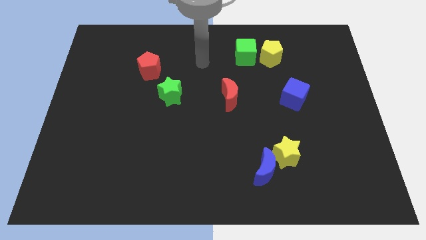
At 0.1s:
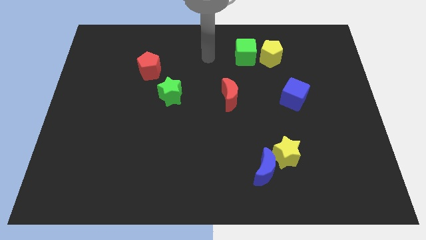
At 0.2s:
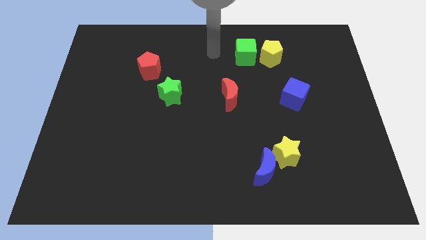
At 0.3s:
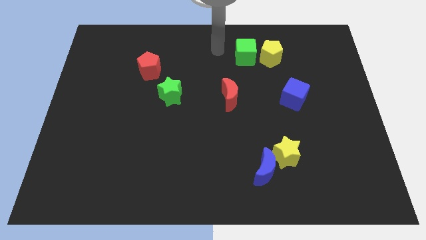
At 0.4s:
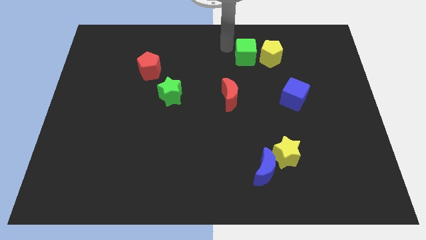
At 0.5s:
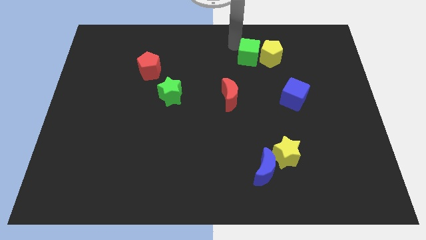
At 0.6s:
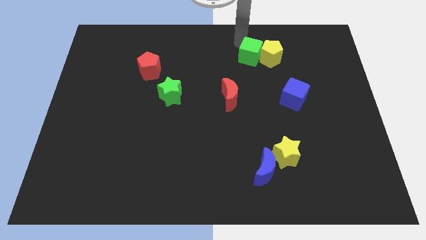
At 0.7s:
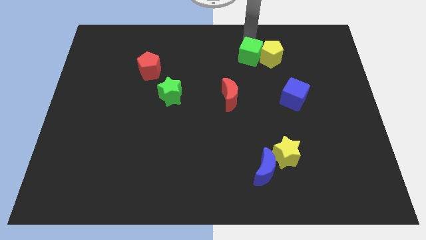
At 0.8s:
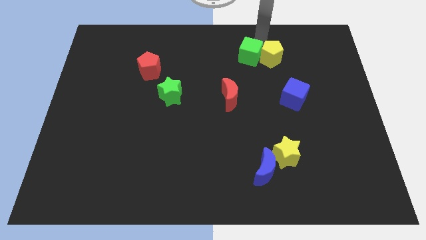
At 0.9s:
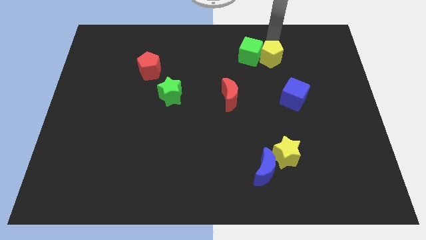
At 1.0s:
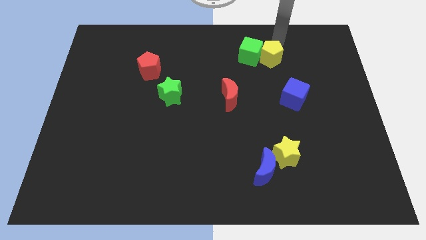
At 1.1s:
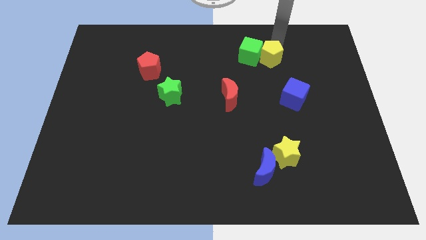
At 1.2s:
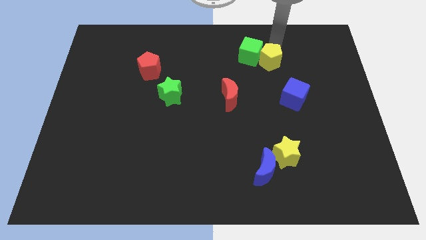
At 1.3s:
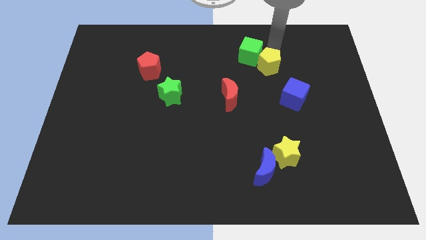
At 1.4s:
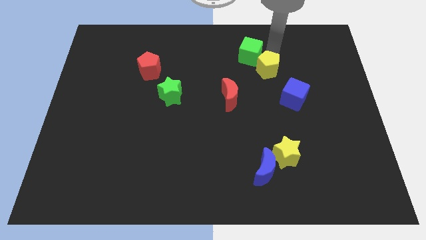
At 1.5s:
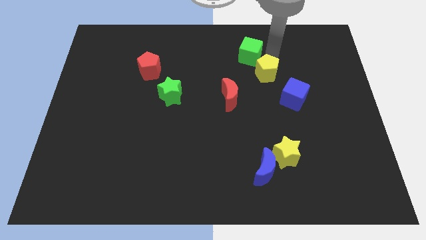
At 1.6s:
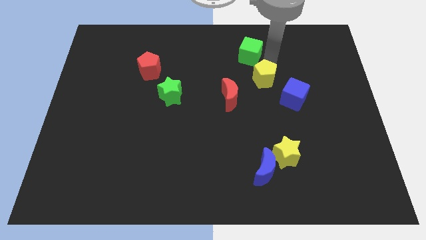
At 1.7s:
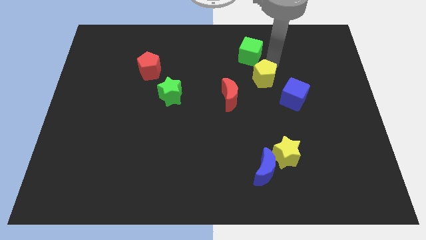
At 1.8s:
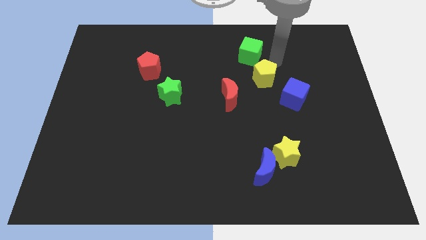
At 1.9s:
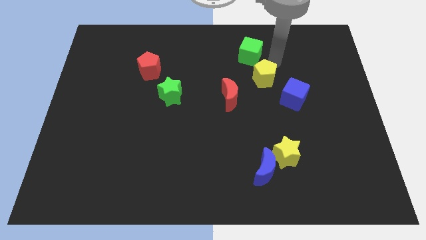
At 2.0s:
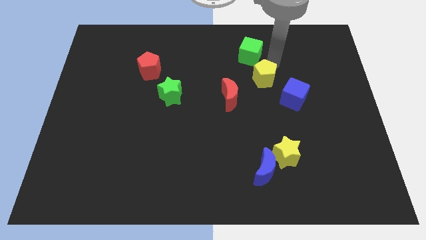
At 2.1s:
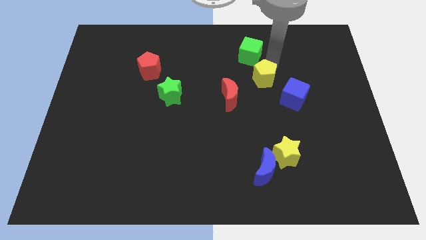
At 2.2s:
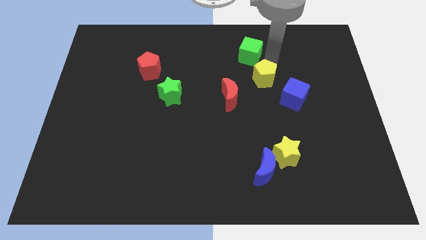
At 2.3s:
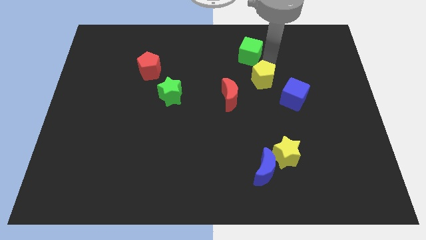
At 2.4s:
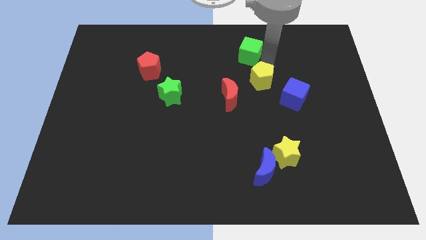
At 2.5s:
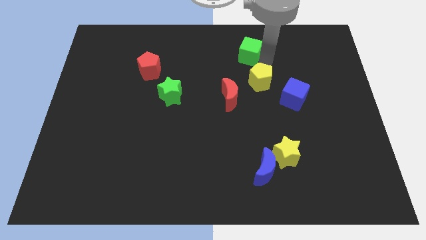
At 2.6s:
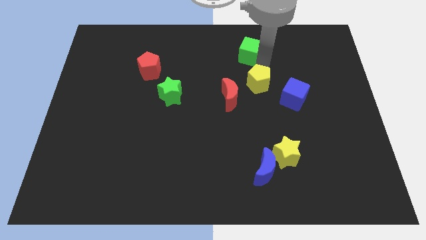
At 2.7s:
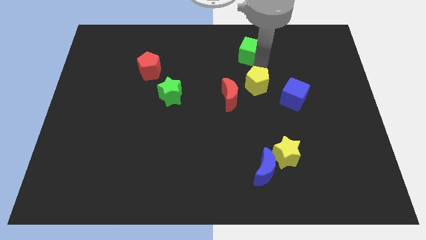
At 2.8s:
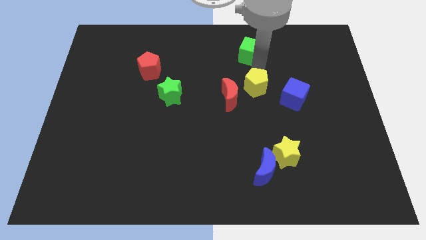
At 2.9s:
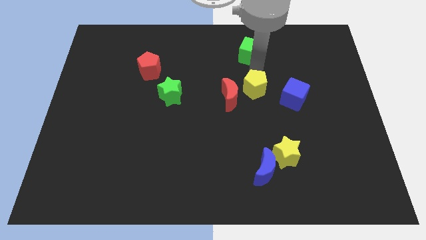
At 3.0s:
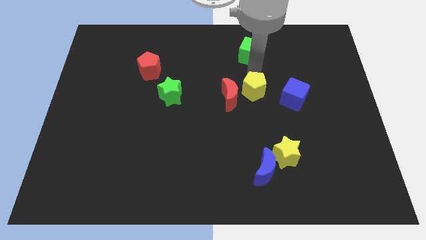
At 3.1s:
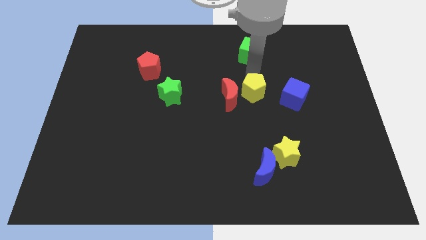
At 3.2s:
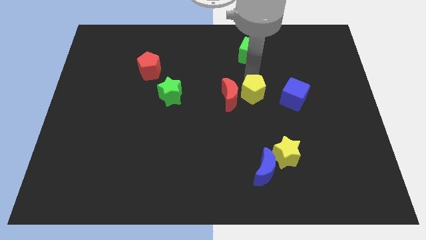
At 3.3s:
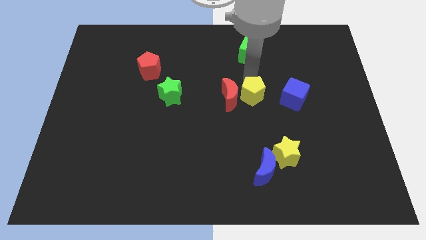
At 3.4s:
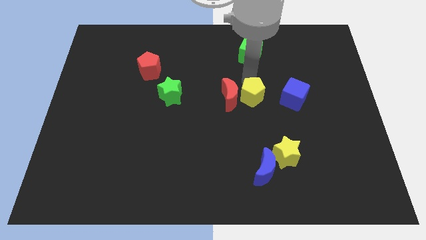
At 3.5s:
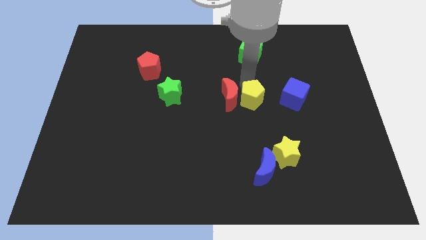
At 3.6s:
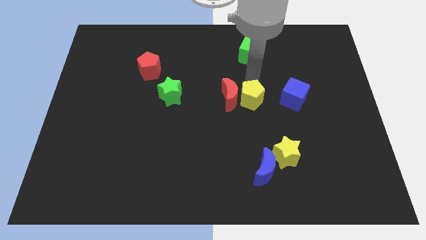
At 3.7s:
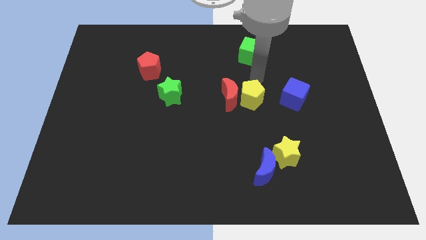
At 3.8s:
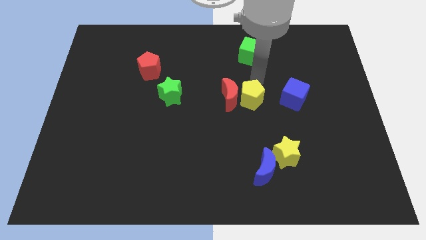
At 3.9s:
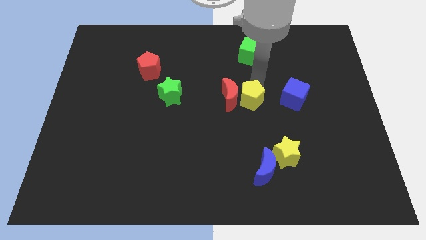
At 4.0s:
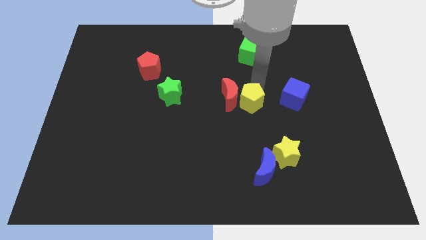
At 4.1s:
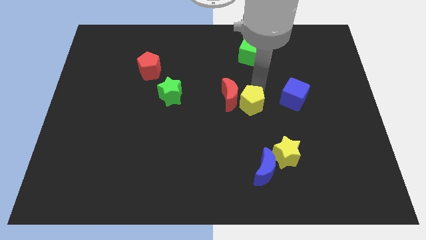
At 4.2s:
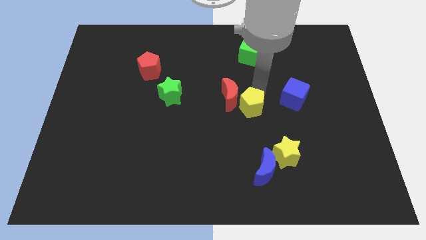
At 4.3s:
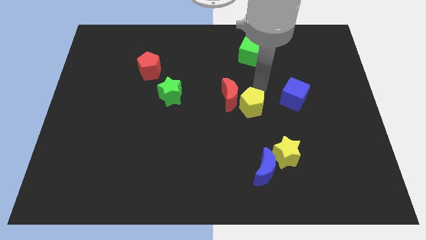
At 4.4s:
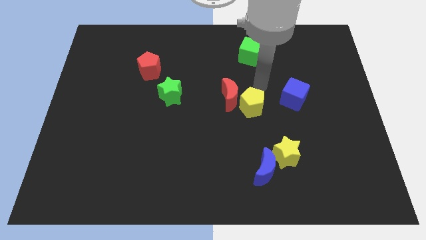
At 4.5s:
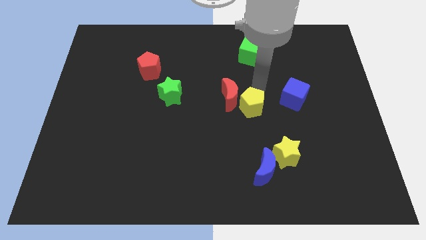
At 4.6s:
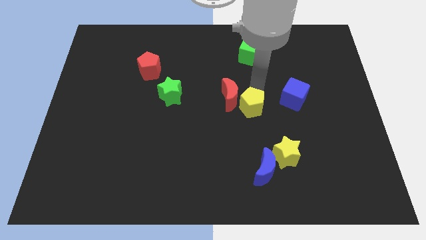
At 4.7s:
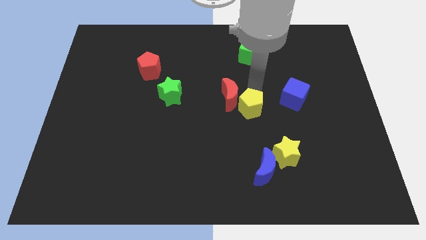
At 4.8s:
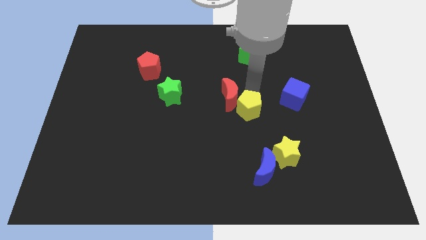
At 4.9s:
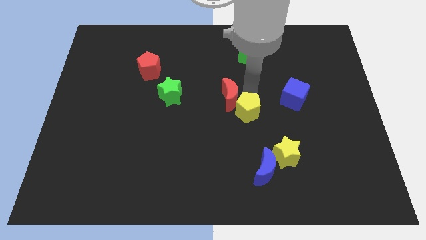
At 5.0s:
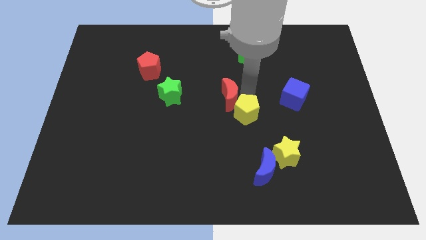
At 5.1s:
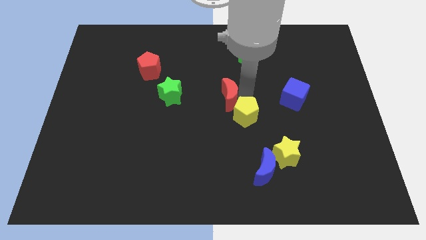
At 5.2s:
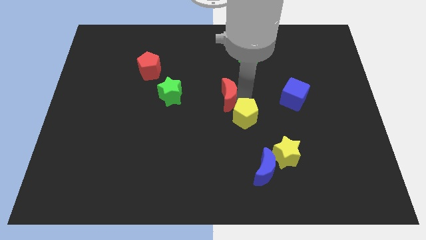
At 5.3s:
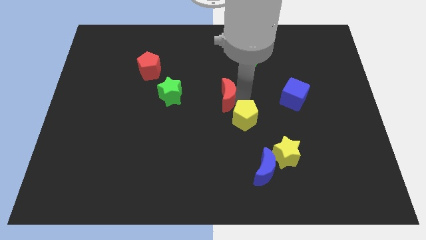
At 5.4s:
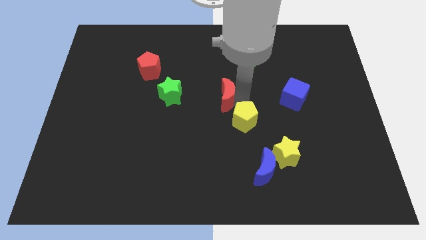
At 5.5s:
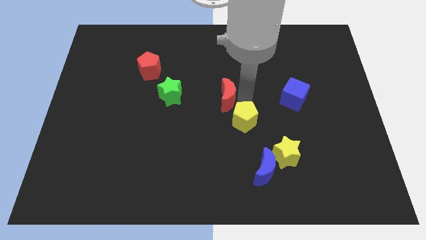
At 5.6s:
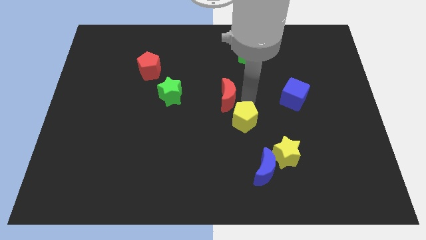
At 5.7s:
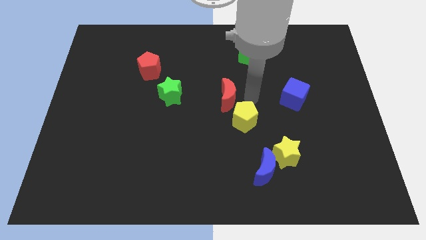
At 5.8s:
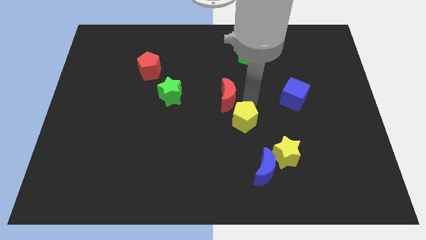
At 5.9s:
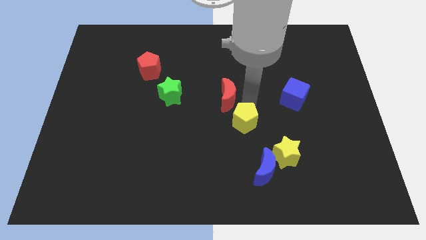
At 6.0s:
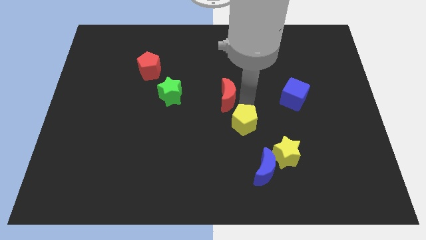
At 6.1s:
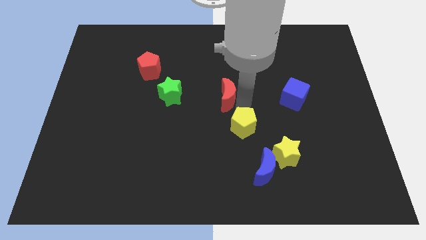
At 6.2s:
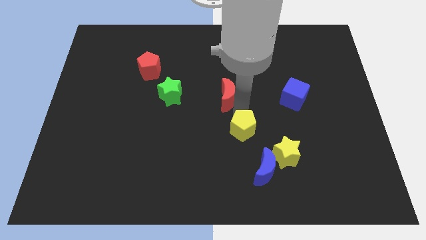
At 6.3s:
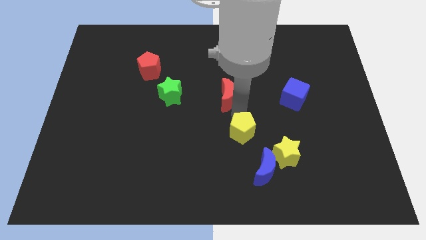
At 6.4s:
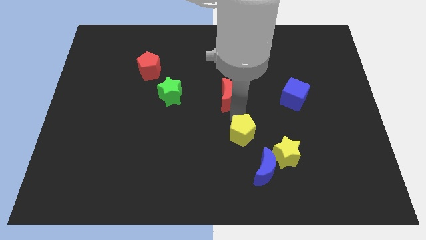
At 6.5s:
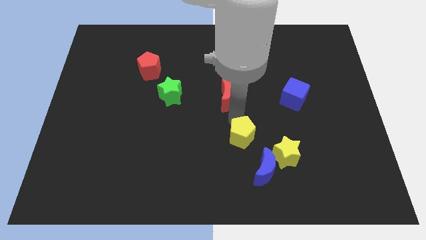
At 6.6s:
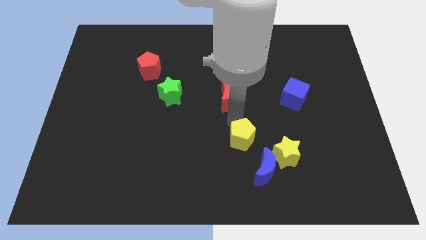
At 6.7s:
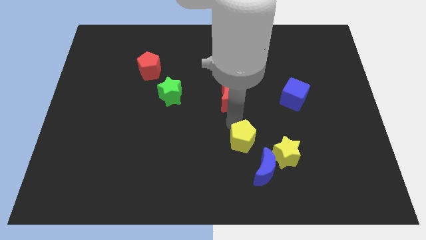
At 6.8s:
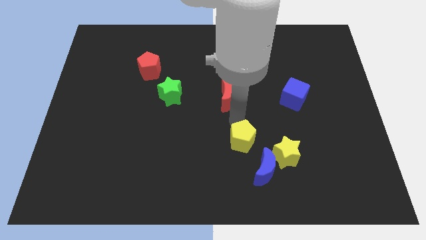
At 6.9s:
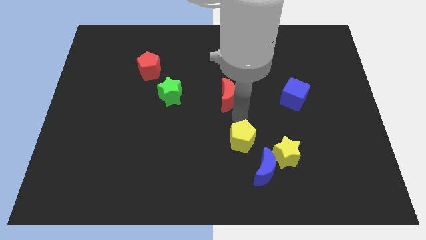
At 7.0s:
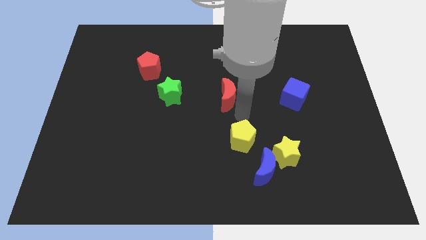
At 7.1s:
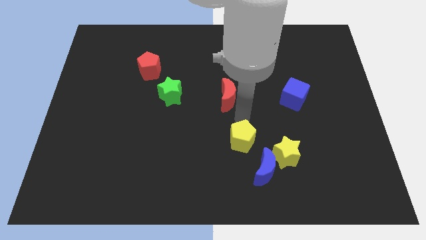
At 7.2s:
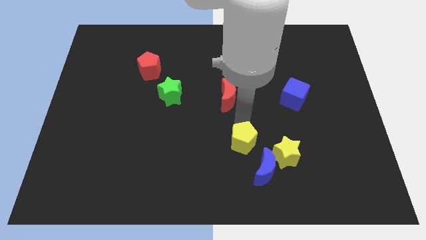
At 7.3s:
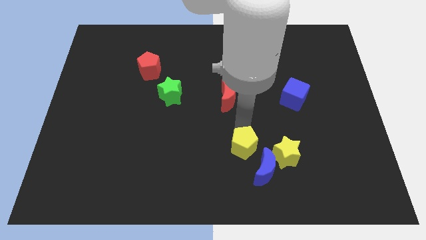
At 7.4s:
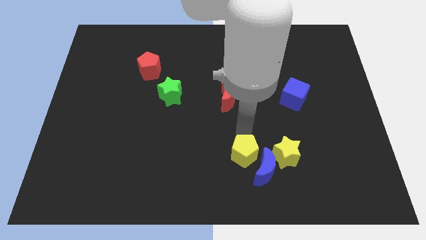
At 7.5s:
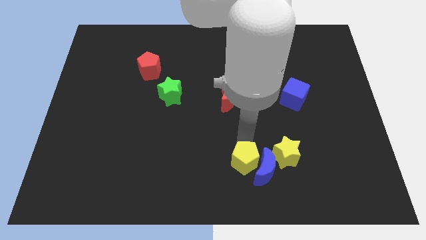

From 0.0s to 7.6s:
slide the yellow pentagon to the bottom side
